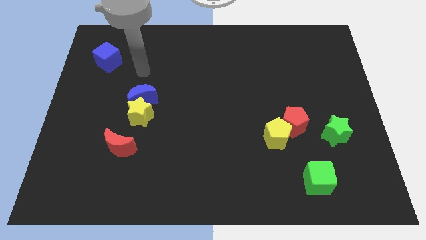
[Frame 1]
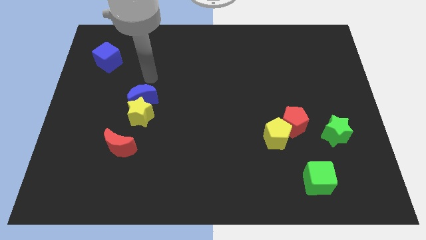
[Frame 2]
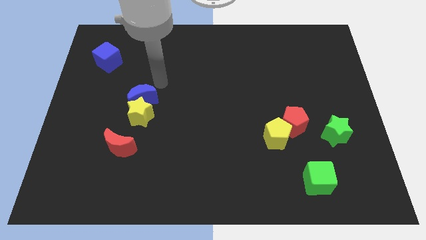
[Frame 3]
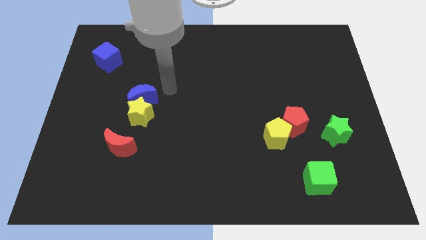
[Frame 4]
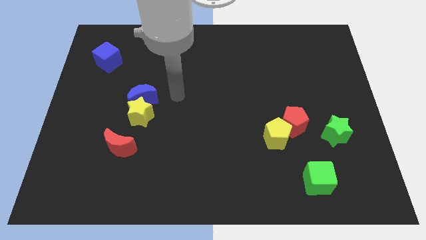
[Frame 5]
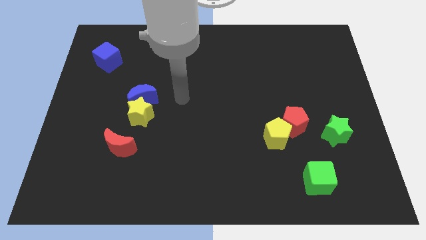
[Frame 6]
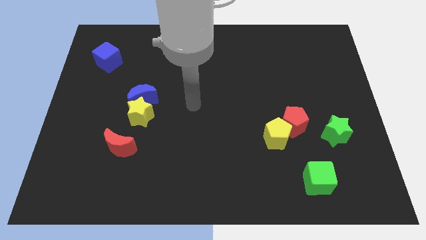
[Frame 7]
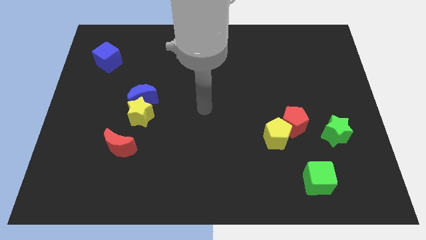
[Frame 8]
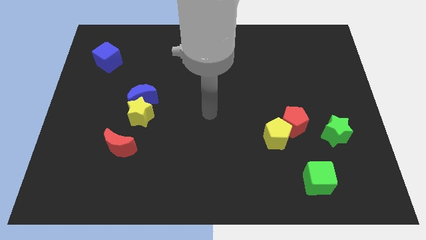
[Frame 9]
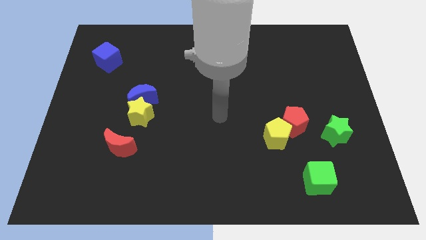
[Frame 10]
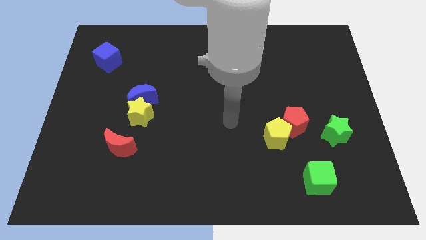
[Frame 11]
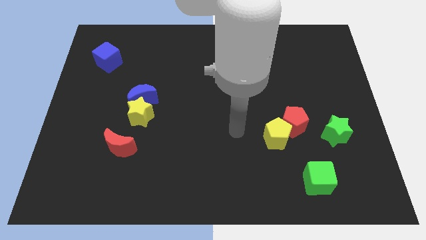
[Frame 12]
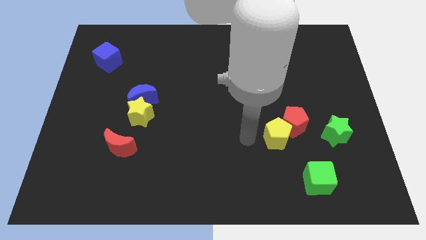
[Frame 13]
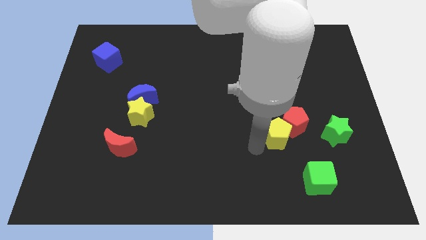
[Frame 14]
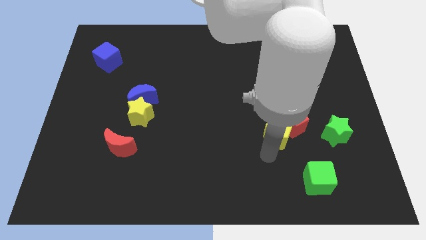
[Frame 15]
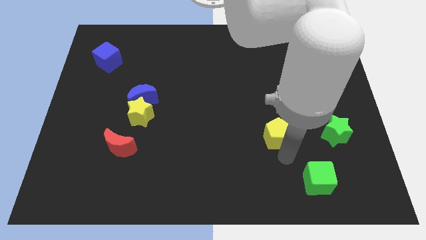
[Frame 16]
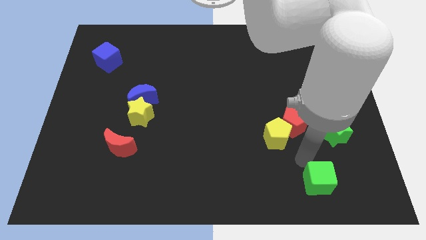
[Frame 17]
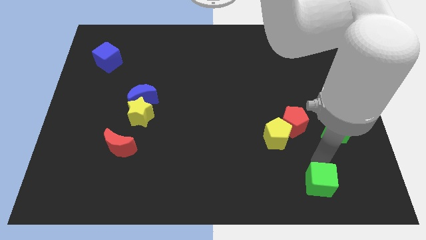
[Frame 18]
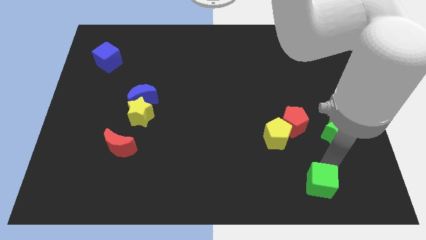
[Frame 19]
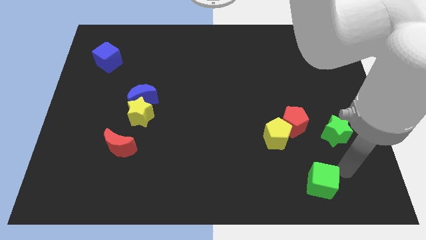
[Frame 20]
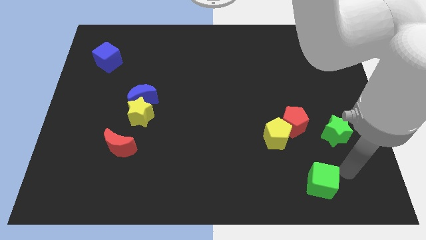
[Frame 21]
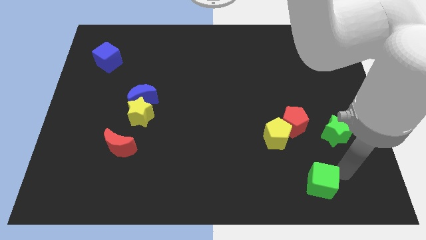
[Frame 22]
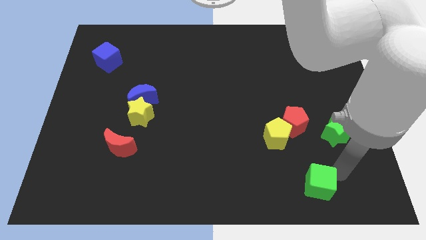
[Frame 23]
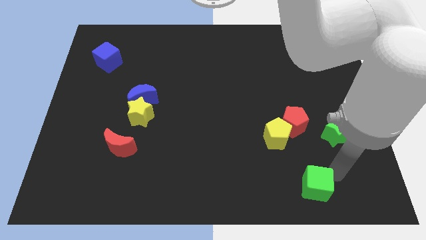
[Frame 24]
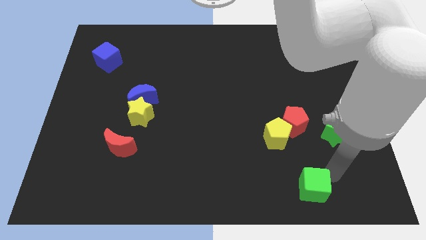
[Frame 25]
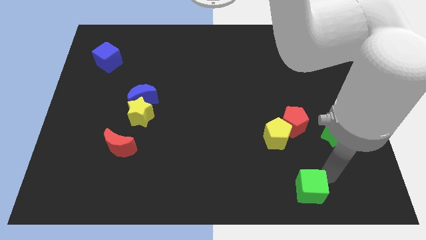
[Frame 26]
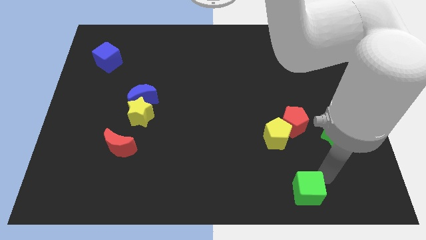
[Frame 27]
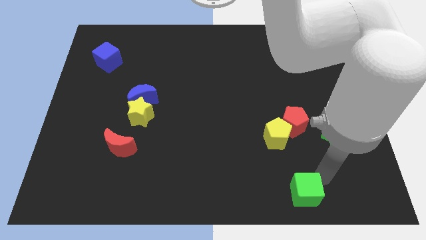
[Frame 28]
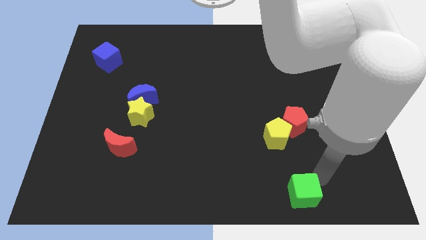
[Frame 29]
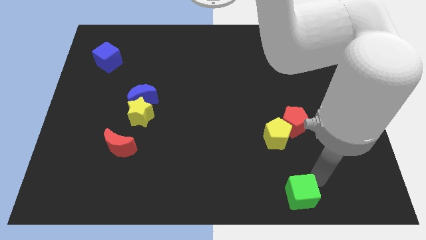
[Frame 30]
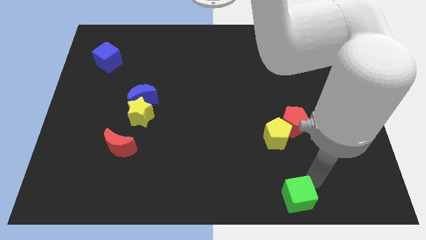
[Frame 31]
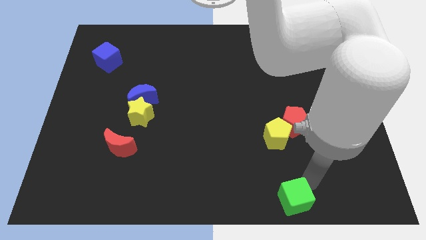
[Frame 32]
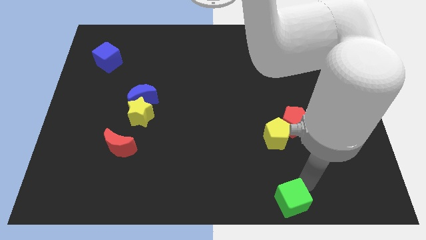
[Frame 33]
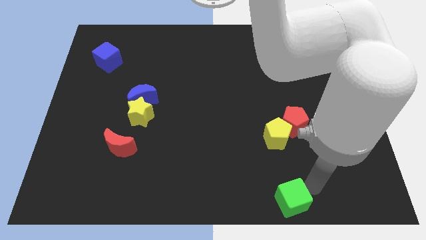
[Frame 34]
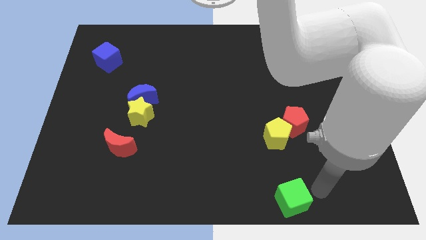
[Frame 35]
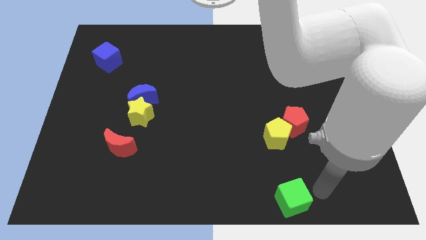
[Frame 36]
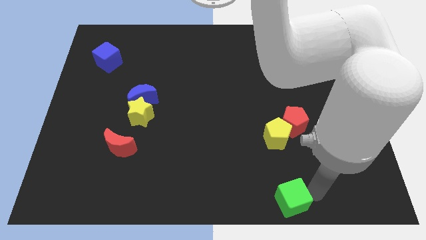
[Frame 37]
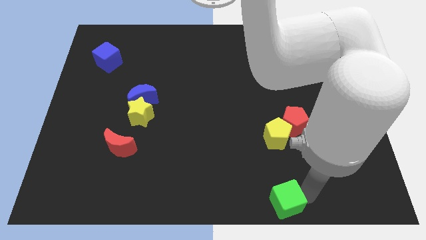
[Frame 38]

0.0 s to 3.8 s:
push the green cube to the bottom

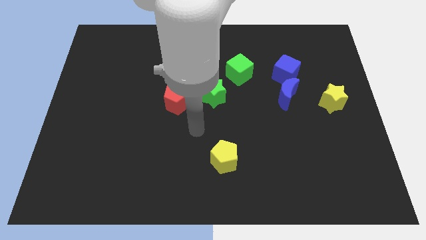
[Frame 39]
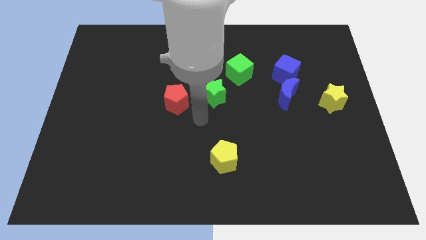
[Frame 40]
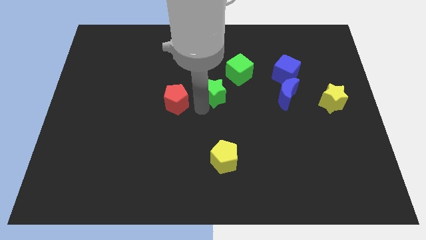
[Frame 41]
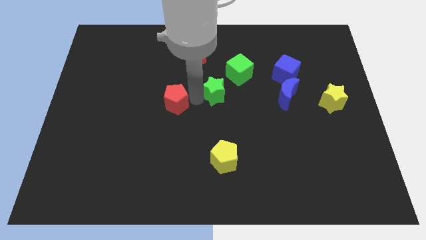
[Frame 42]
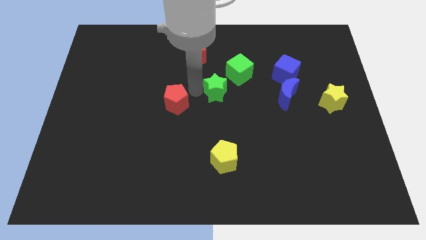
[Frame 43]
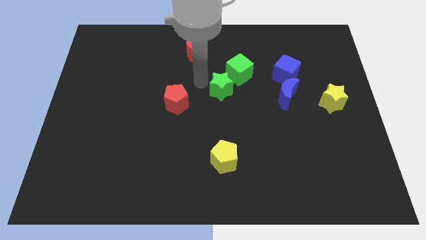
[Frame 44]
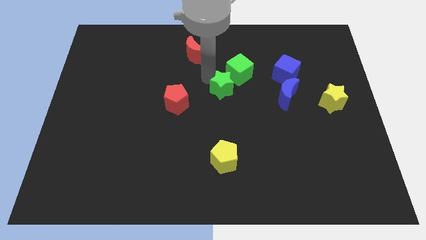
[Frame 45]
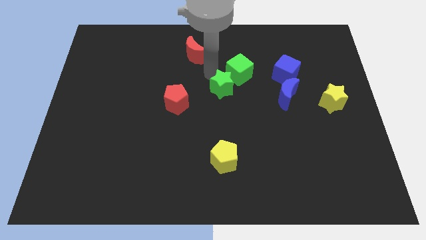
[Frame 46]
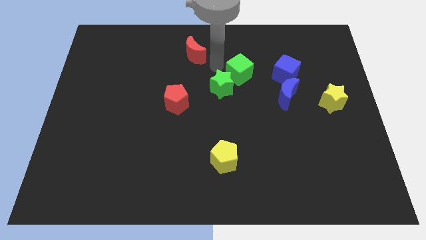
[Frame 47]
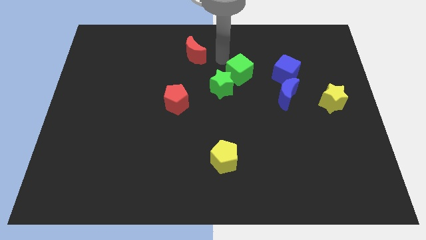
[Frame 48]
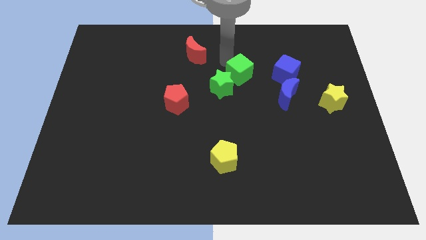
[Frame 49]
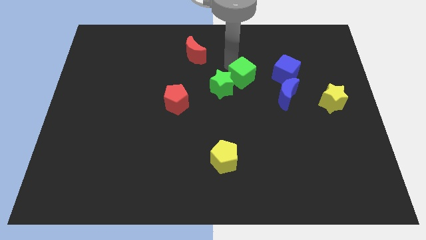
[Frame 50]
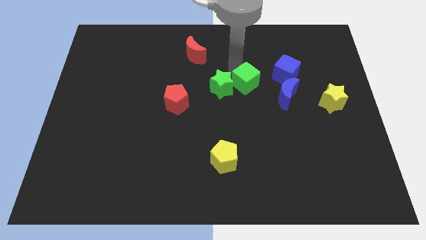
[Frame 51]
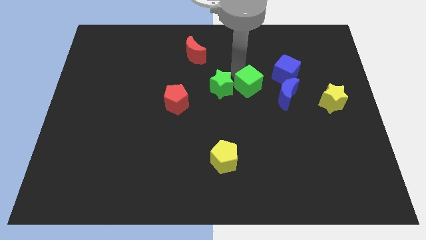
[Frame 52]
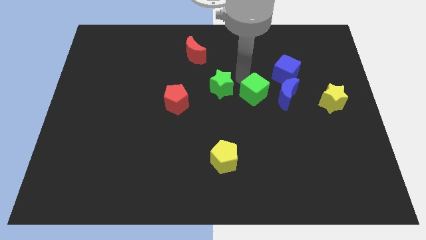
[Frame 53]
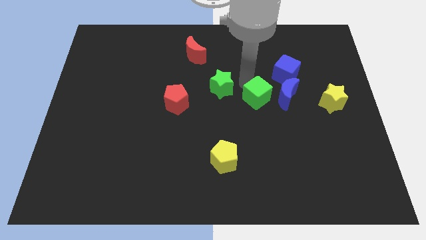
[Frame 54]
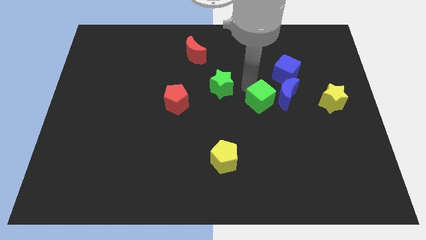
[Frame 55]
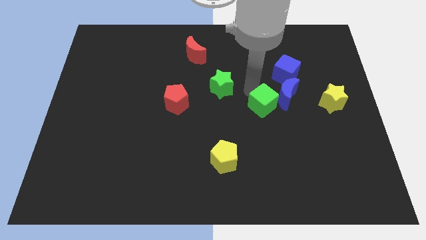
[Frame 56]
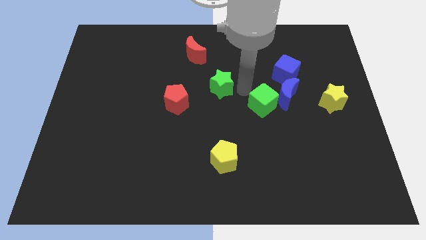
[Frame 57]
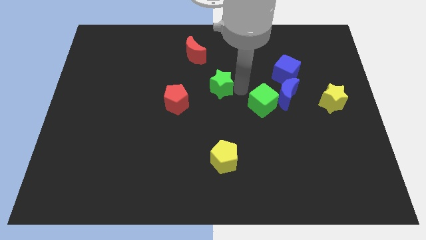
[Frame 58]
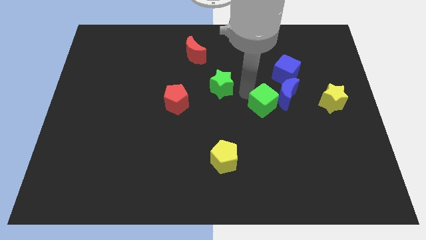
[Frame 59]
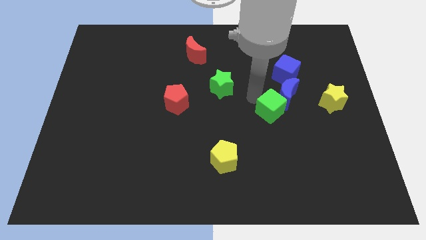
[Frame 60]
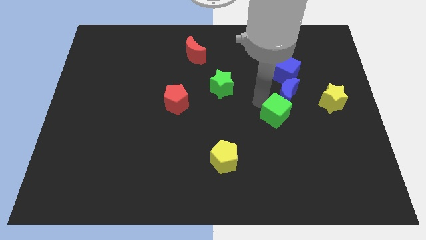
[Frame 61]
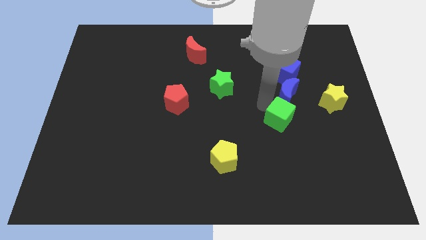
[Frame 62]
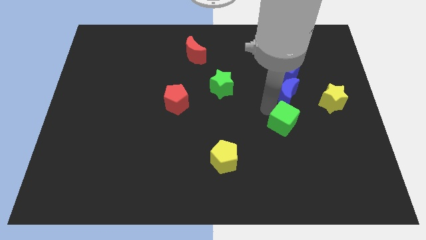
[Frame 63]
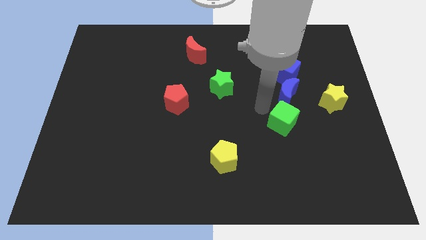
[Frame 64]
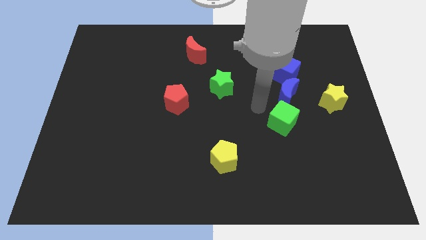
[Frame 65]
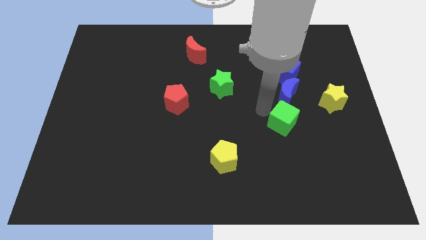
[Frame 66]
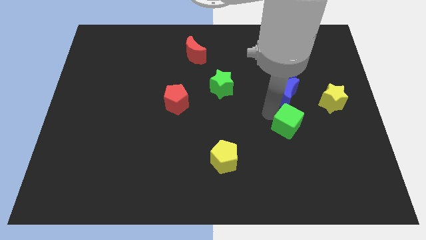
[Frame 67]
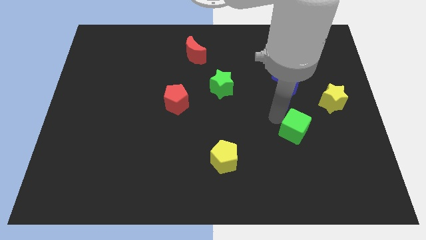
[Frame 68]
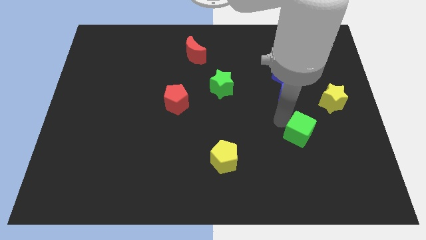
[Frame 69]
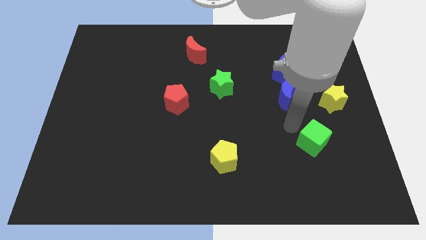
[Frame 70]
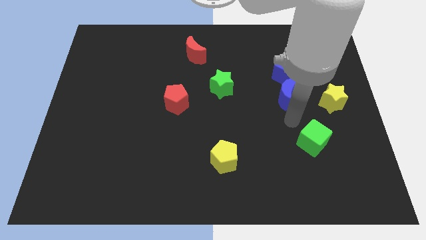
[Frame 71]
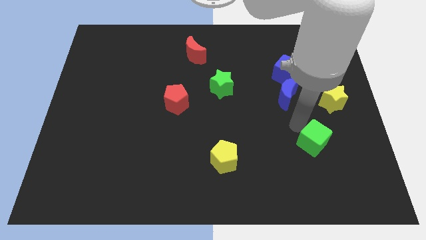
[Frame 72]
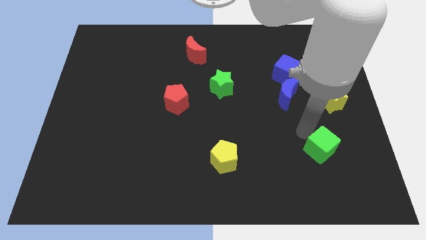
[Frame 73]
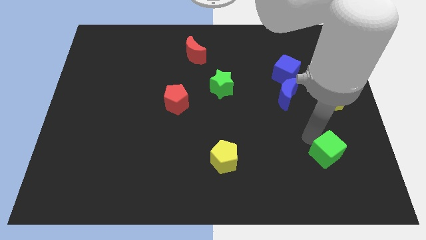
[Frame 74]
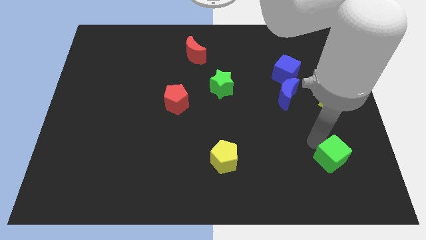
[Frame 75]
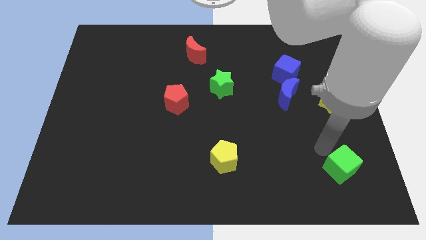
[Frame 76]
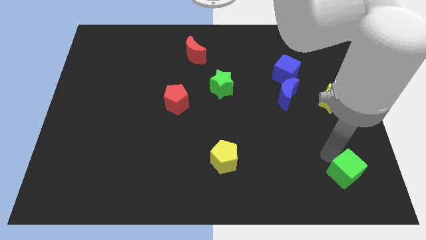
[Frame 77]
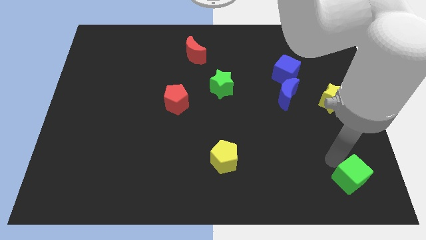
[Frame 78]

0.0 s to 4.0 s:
push the green cube to the bottom right
